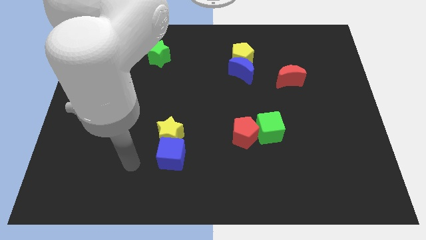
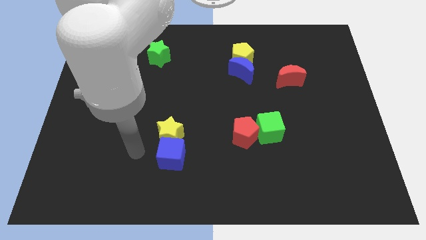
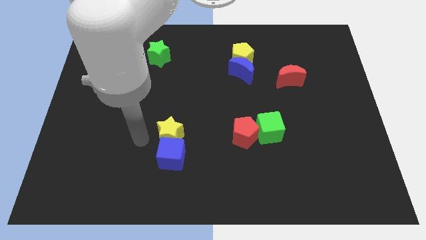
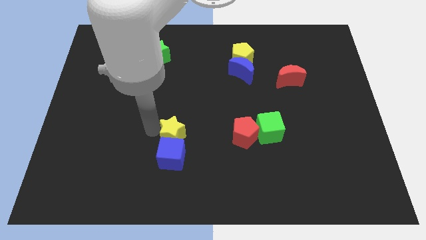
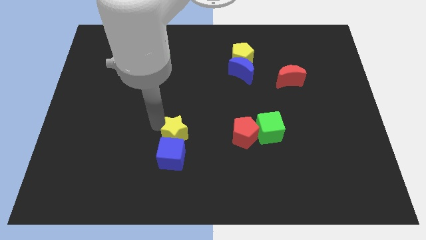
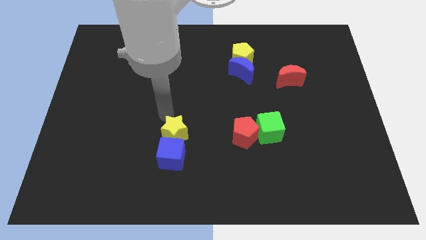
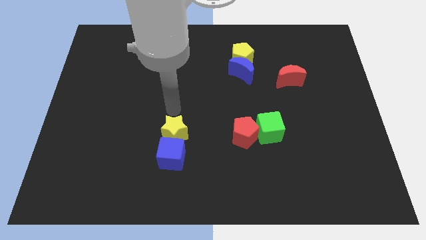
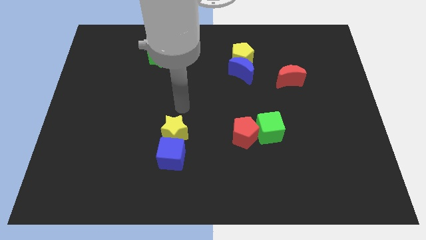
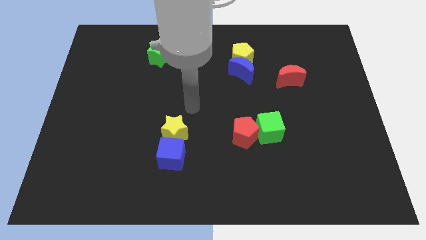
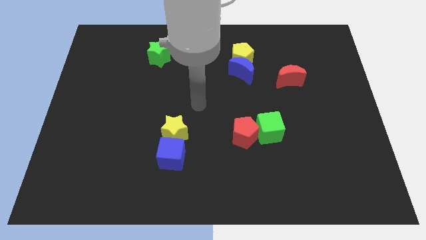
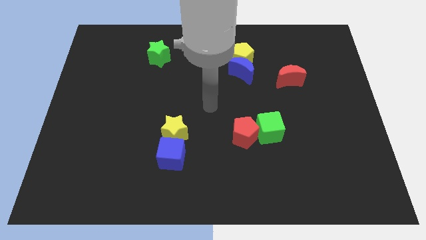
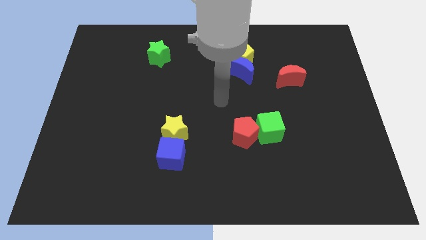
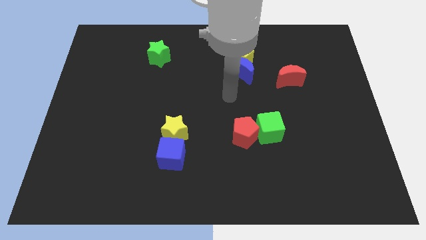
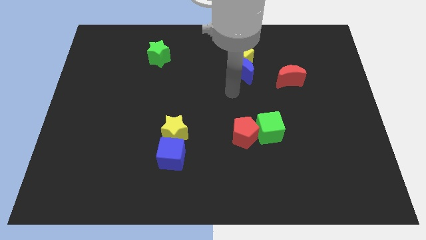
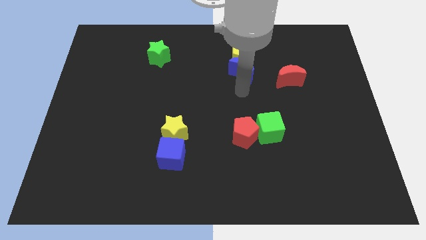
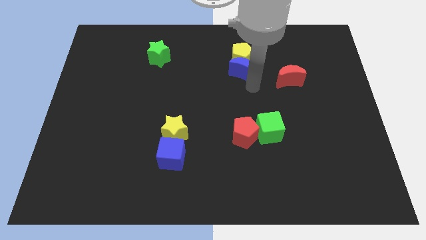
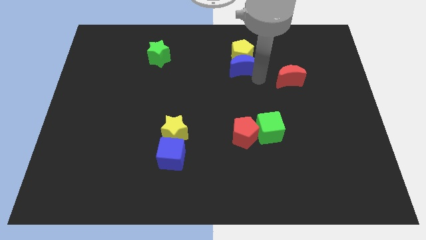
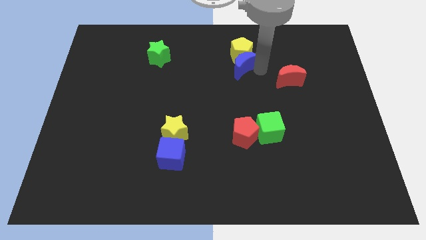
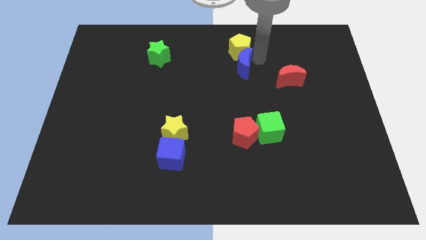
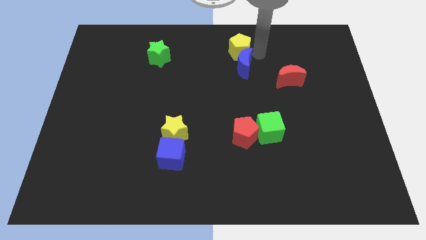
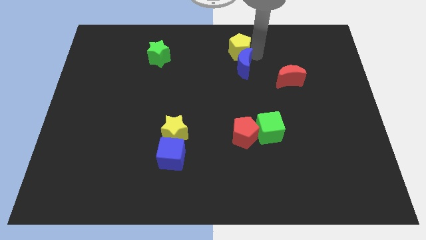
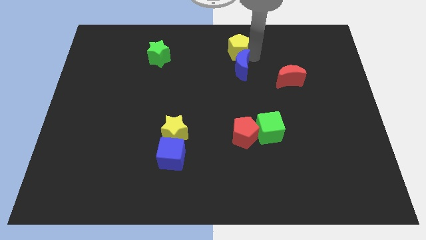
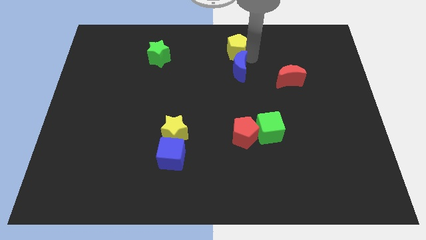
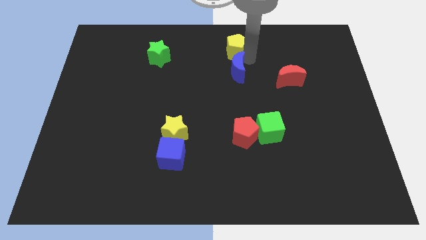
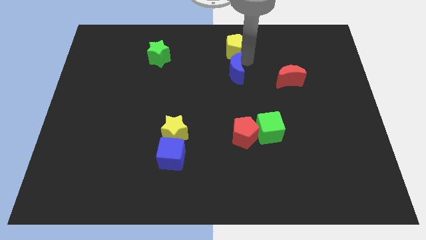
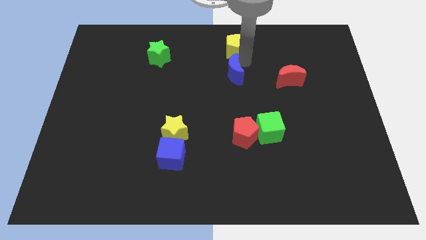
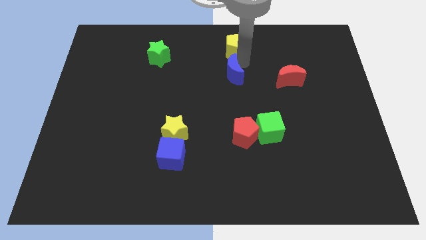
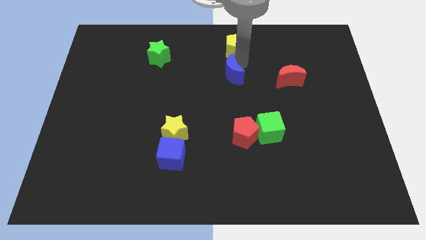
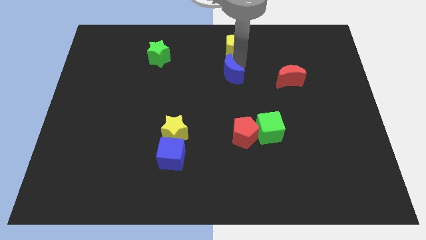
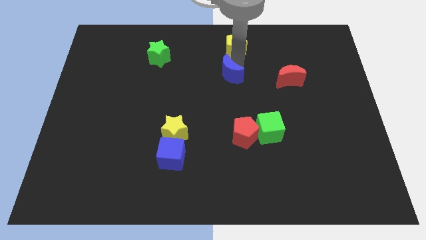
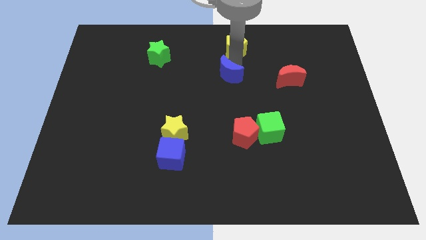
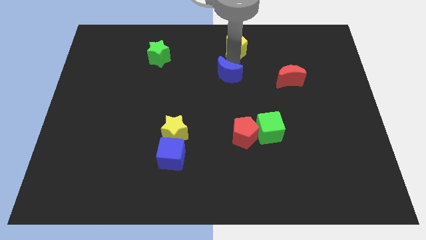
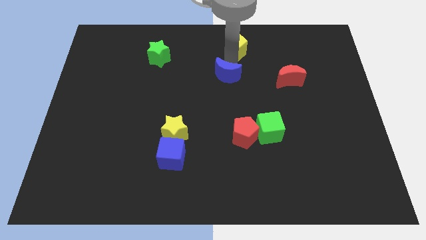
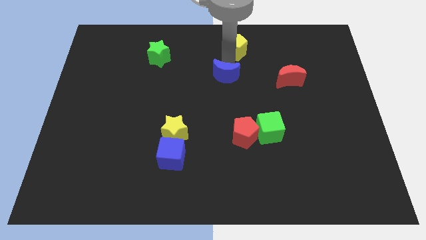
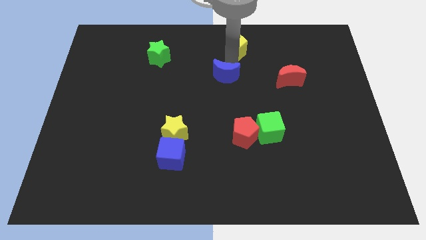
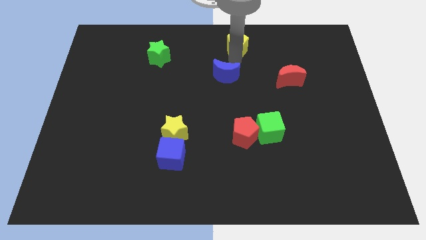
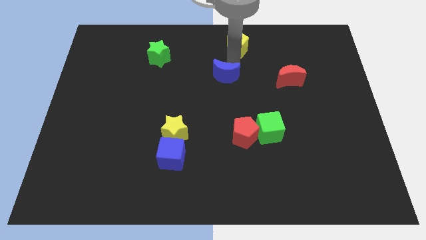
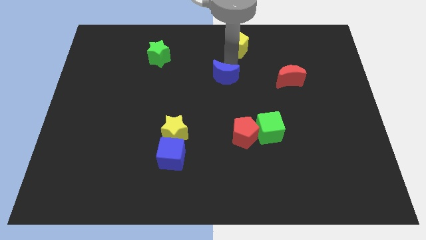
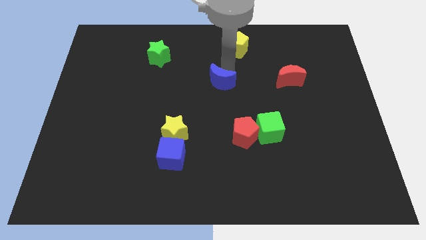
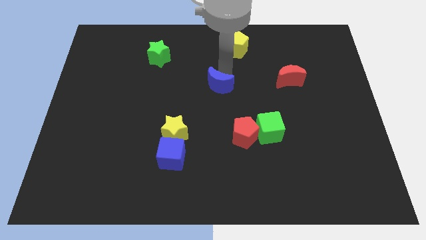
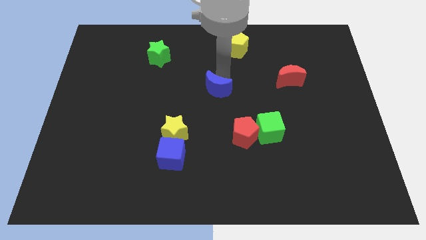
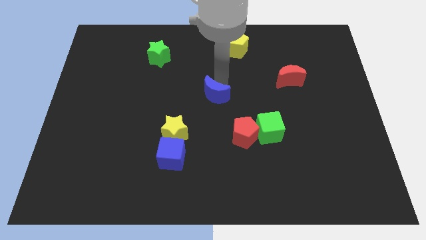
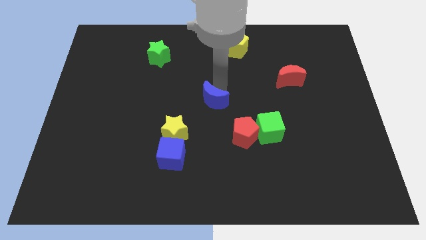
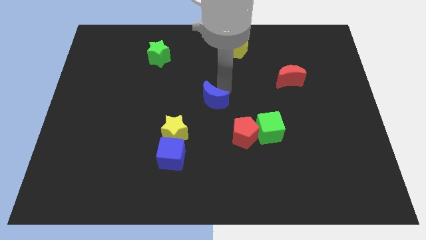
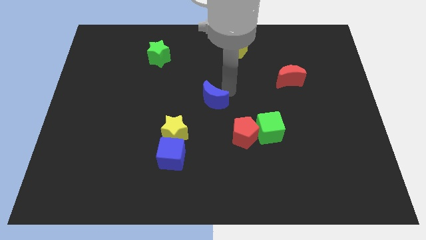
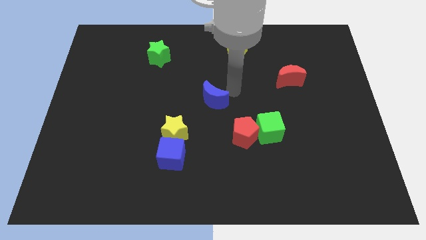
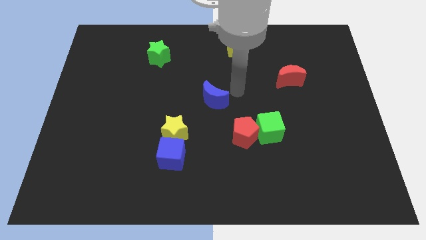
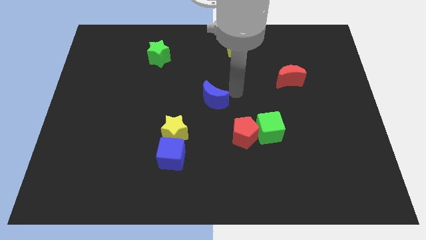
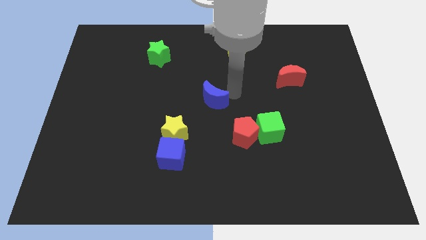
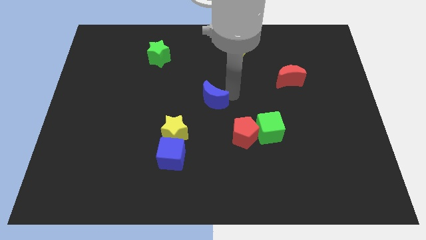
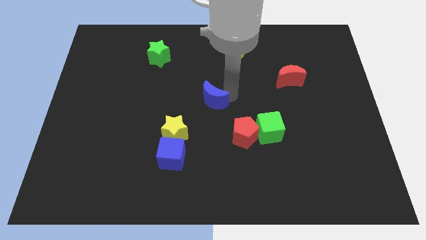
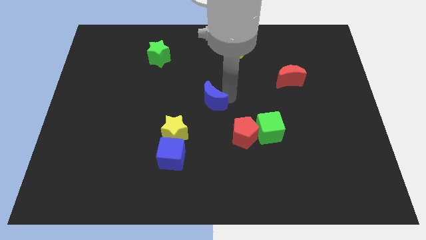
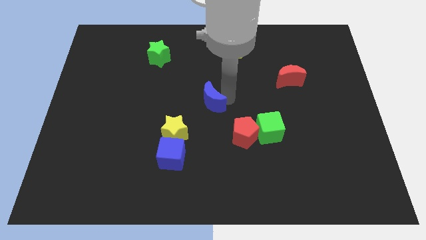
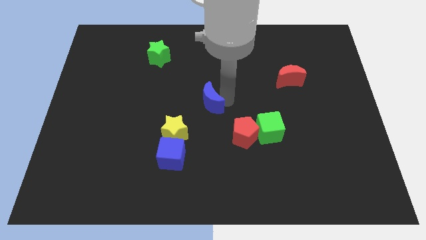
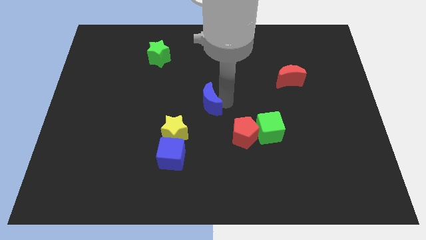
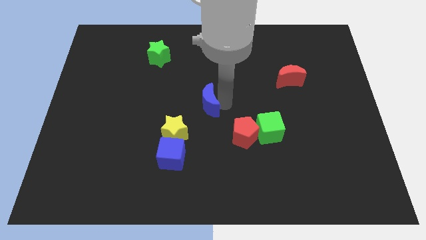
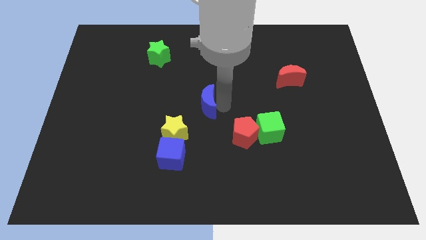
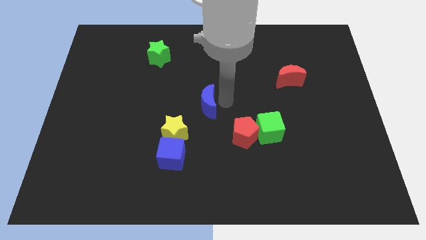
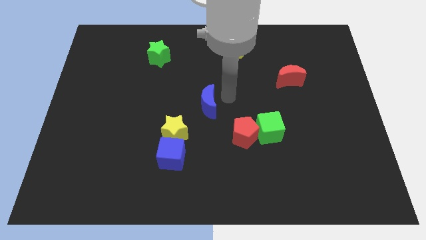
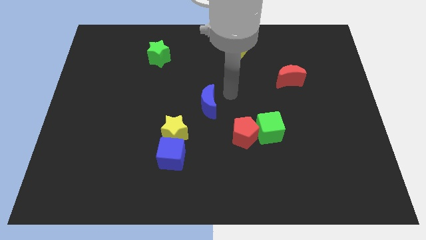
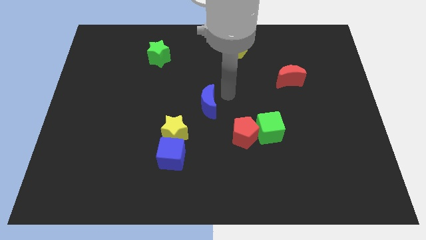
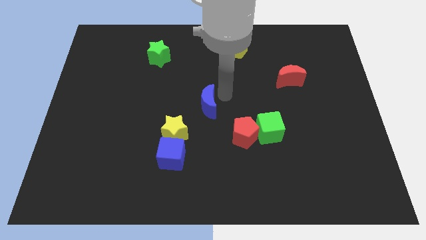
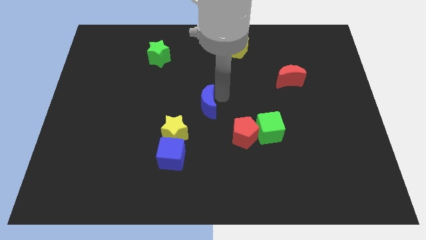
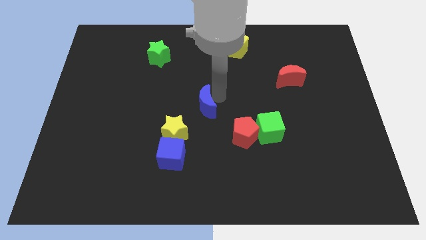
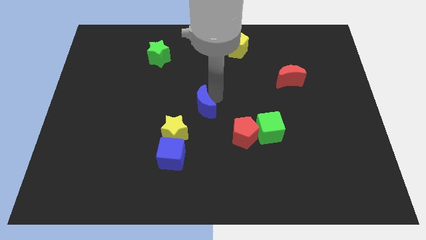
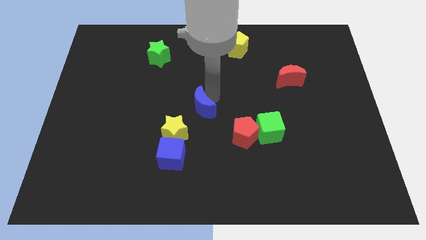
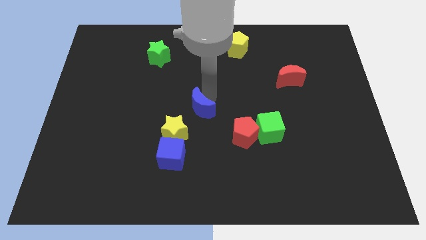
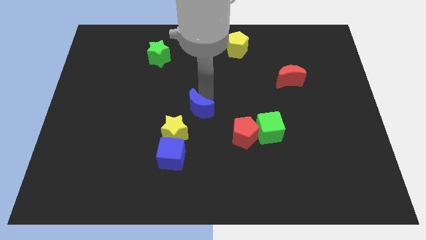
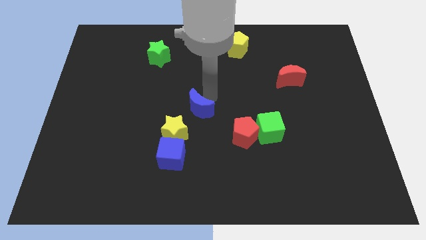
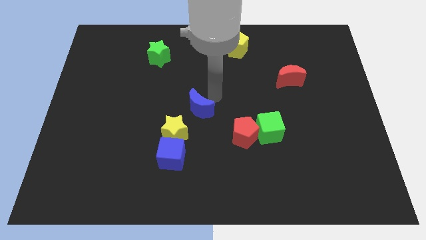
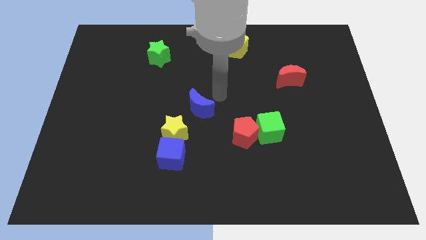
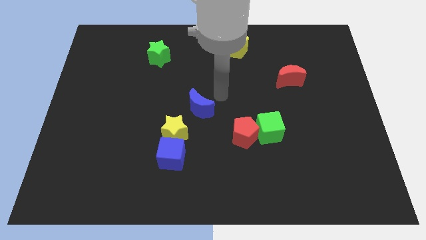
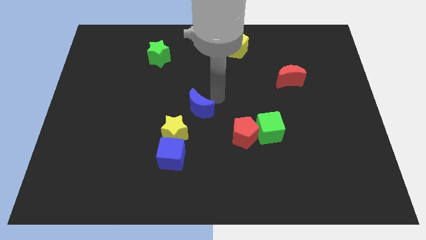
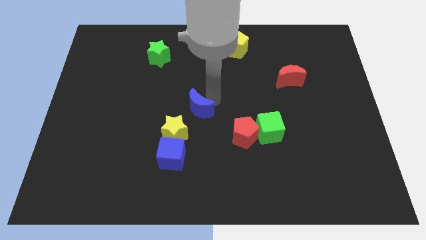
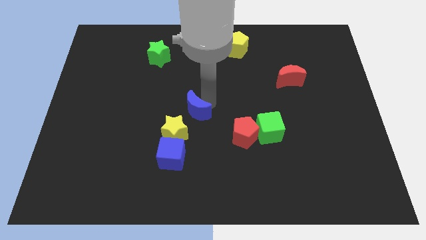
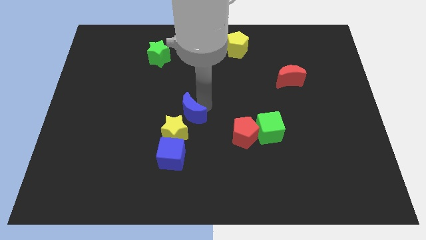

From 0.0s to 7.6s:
slide the blue moon close to the yellow star
